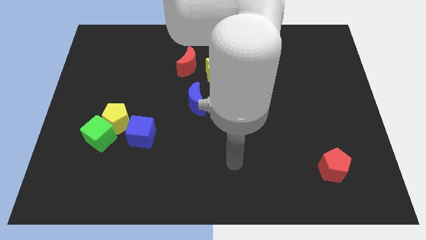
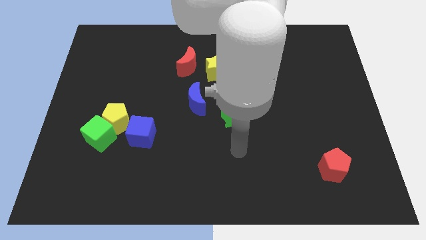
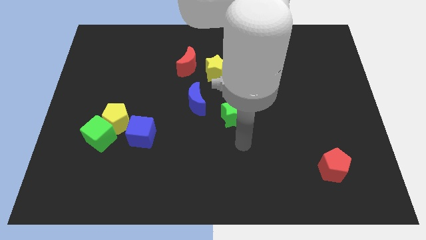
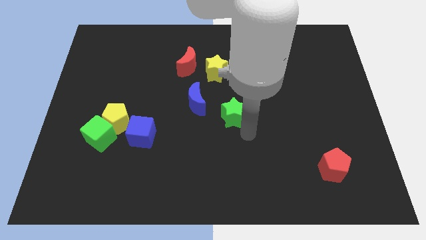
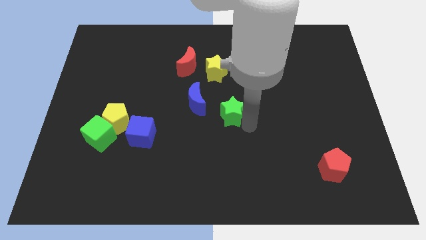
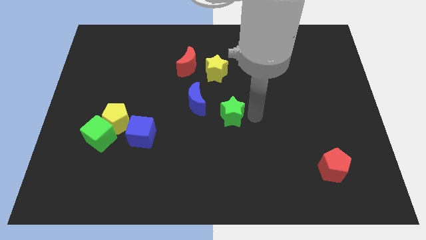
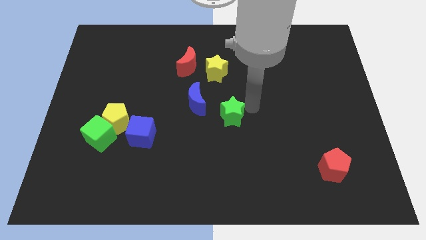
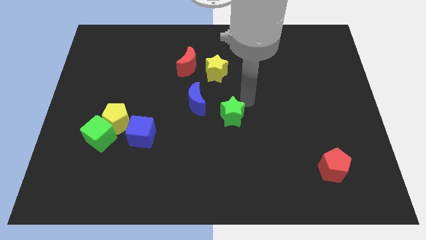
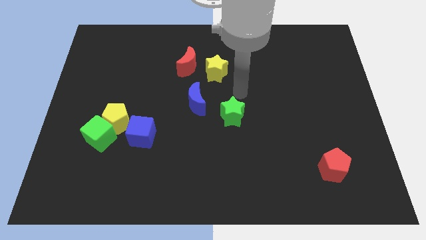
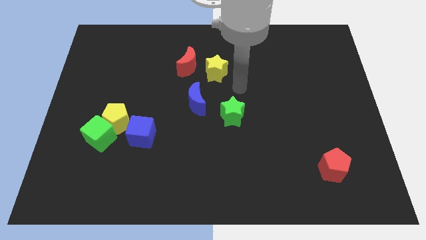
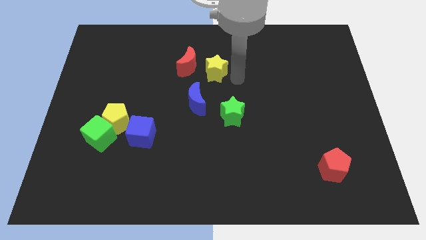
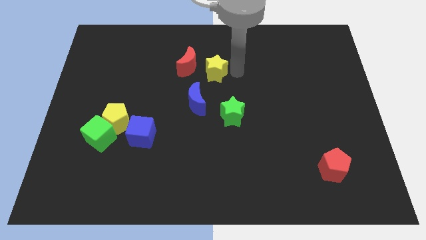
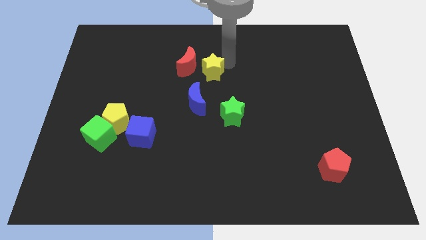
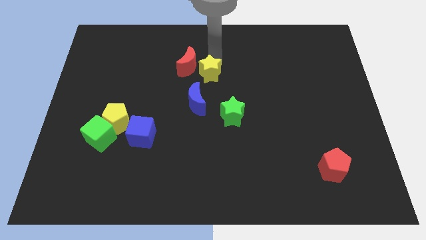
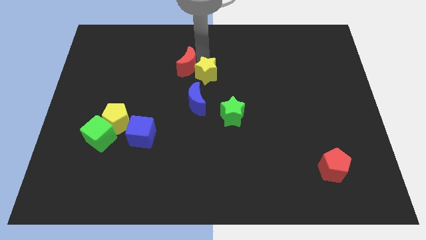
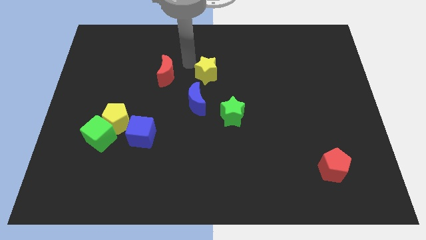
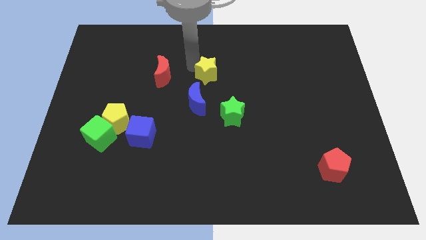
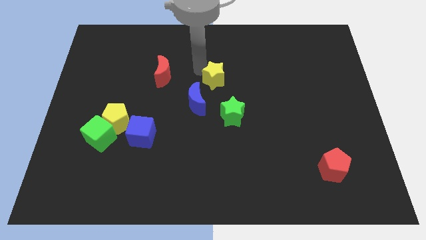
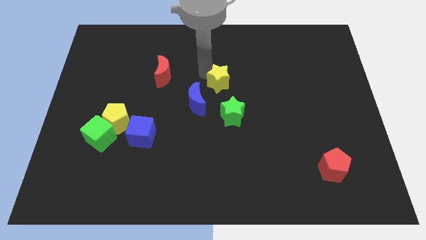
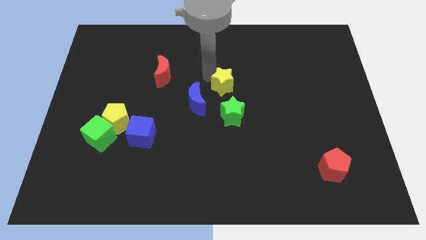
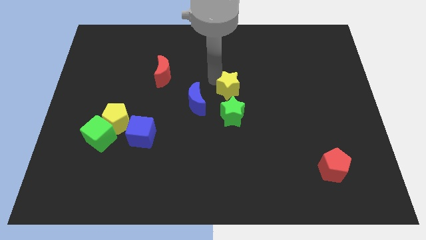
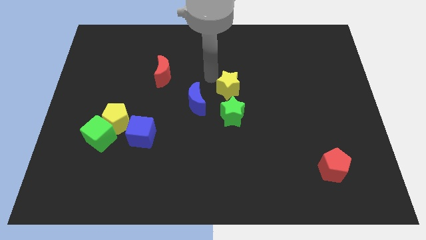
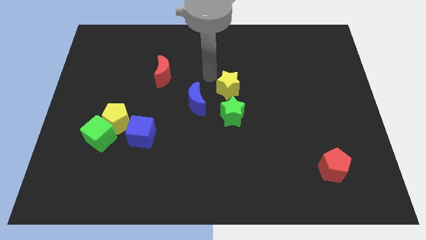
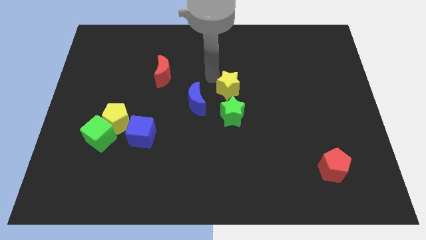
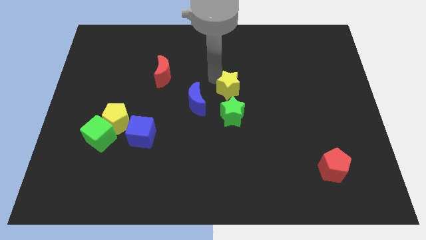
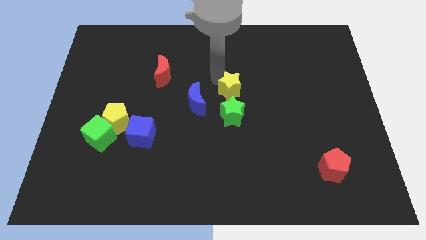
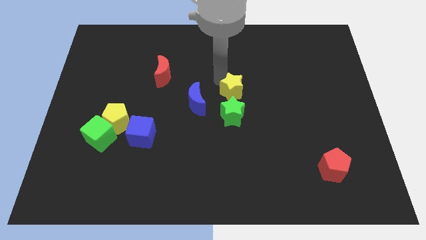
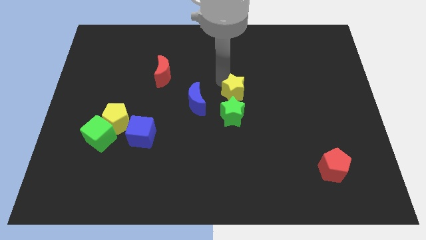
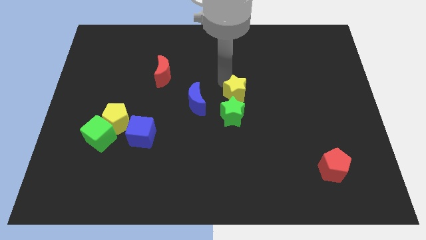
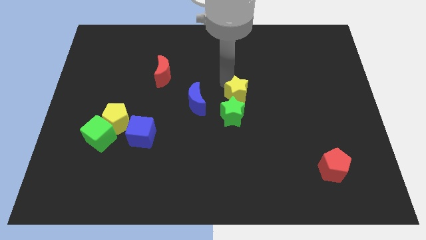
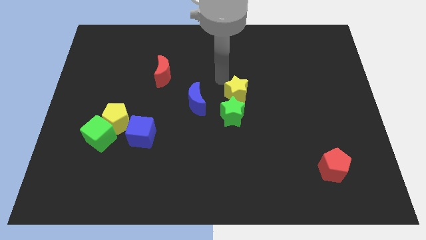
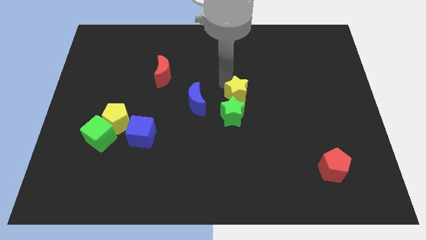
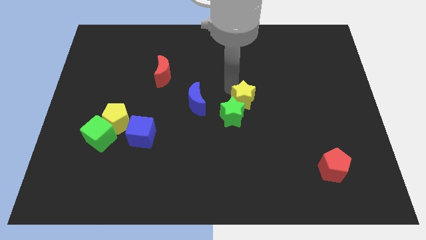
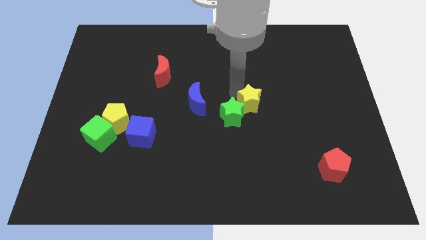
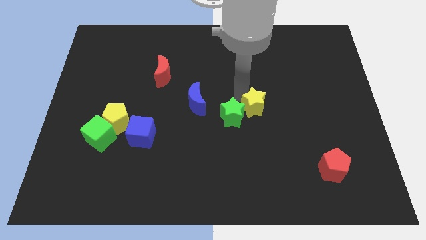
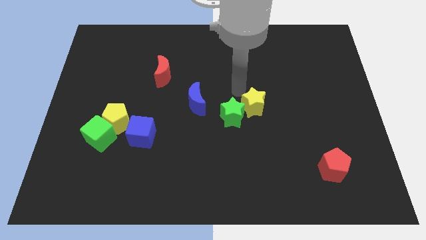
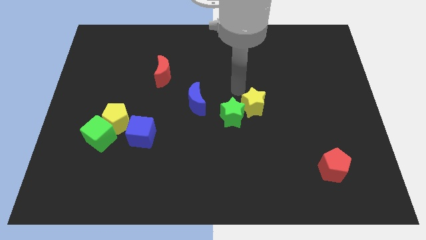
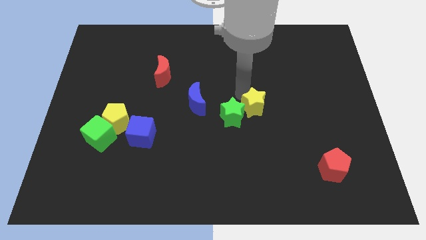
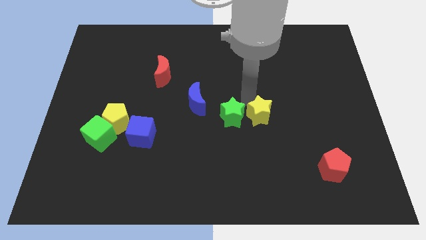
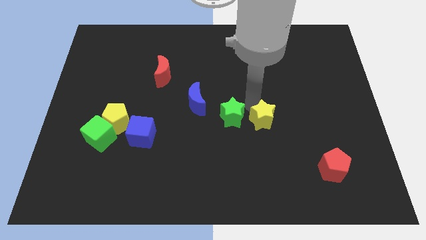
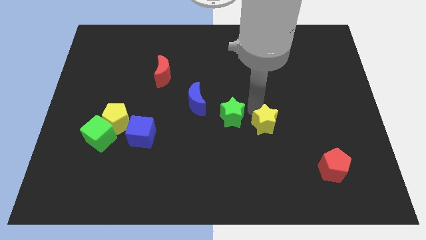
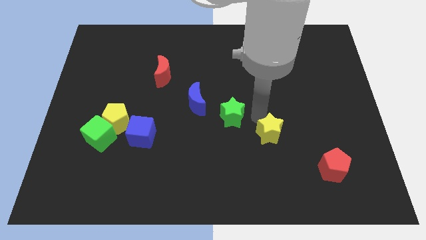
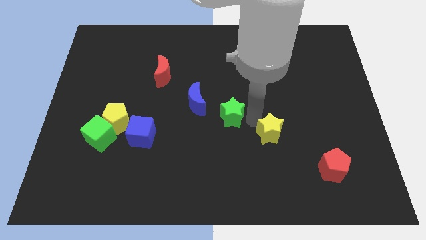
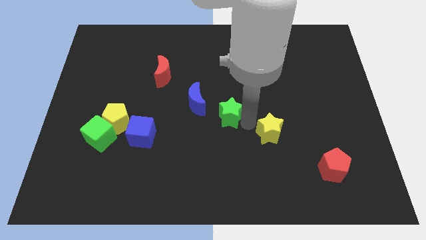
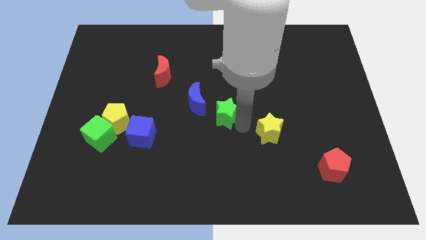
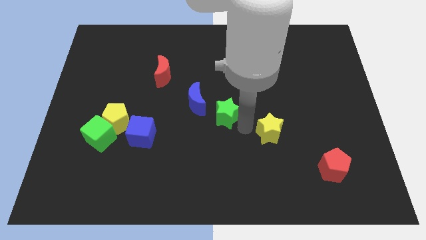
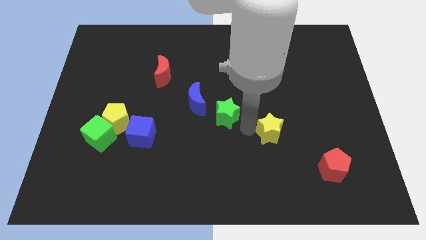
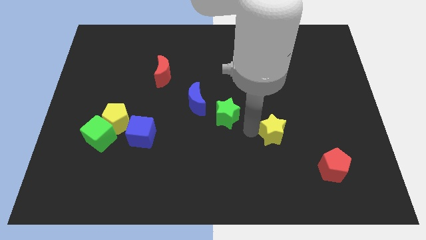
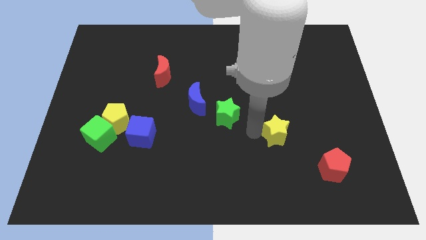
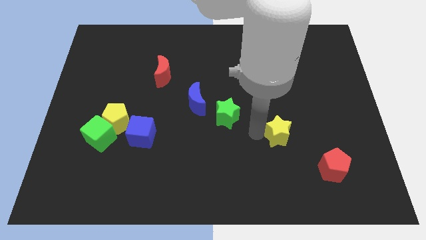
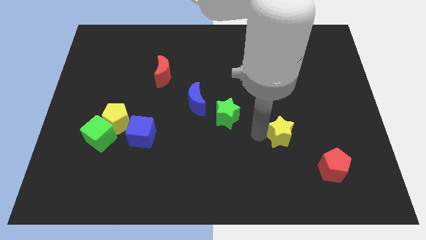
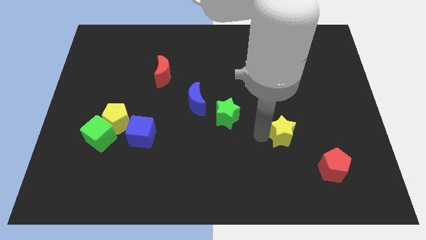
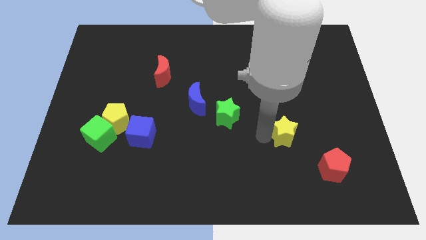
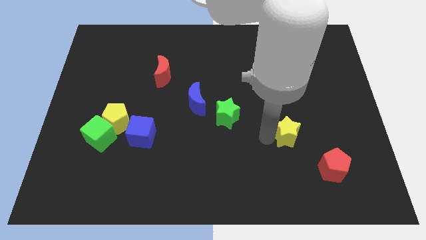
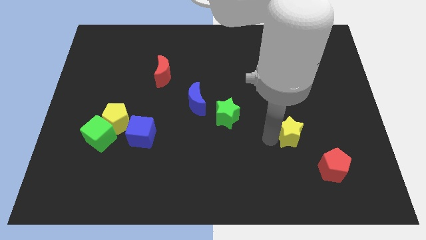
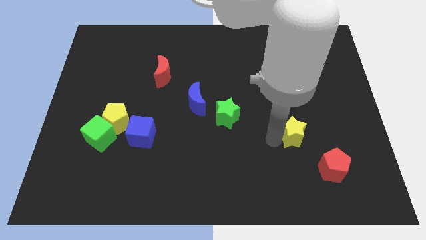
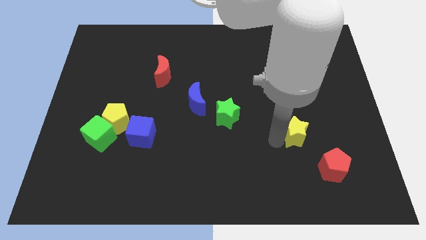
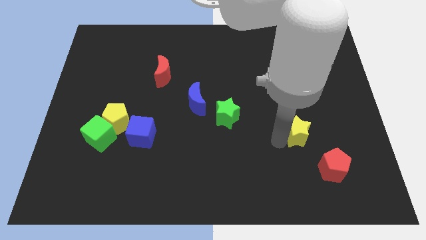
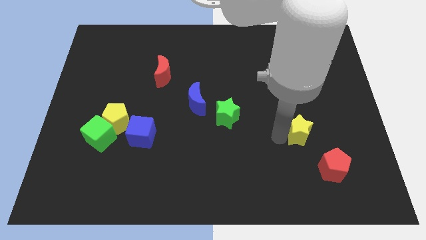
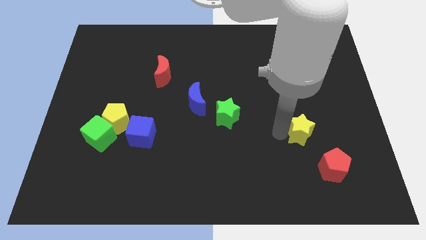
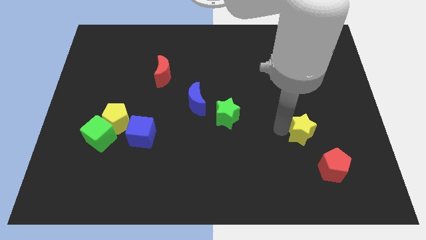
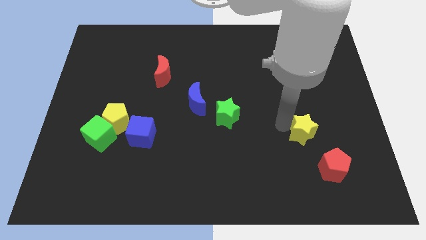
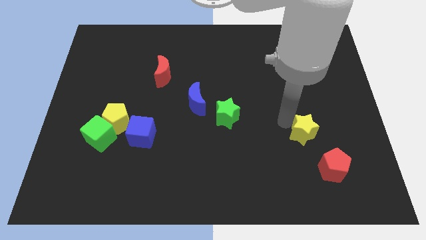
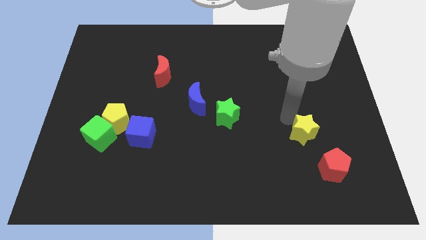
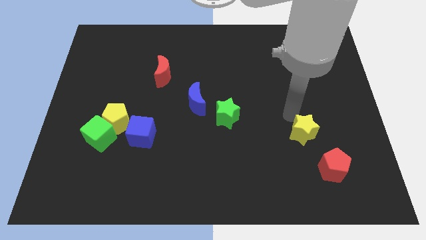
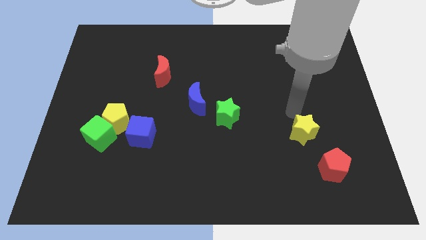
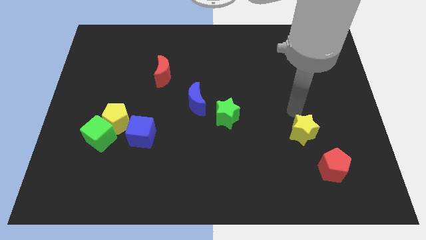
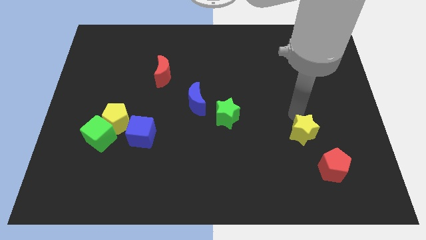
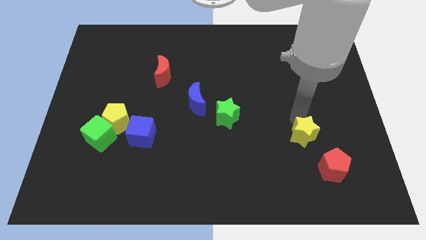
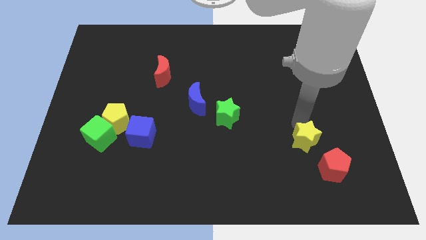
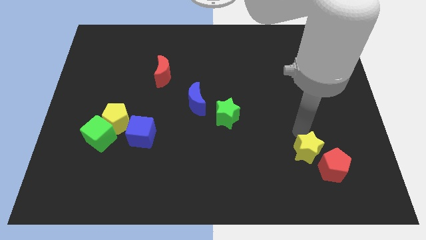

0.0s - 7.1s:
put the yellow star towards the red pentagon
